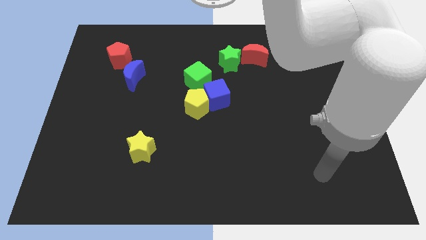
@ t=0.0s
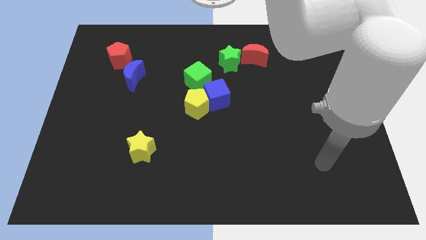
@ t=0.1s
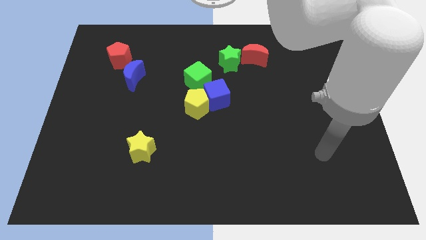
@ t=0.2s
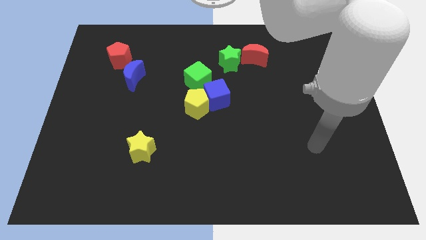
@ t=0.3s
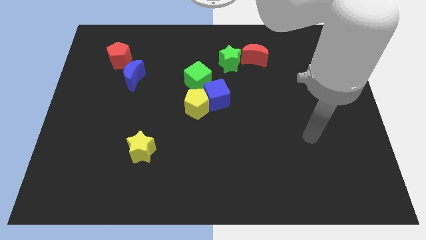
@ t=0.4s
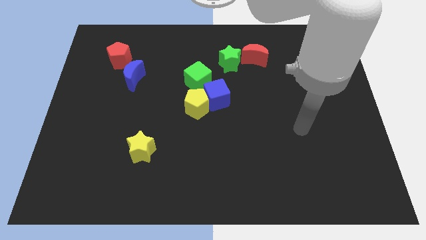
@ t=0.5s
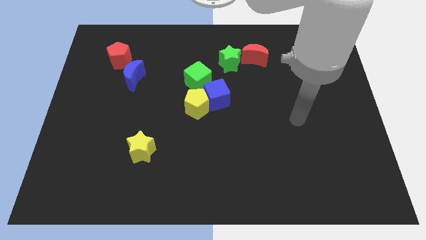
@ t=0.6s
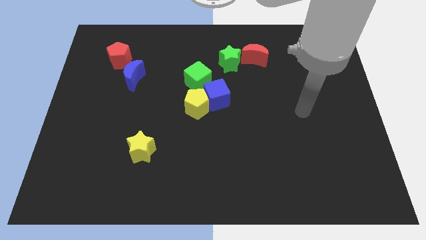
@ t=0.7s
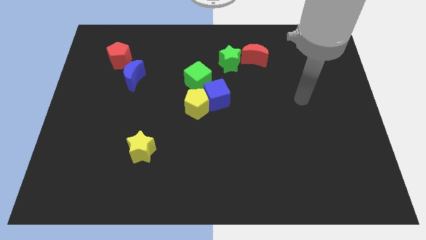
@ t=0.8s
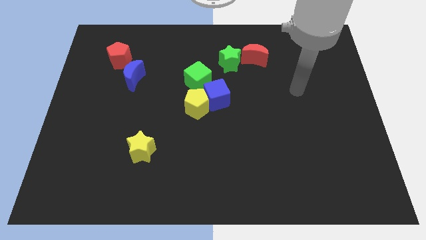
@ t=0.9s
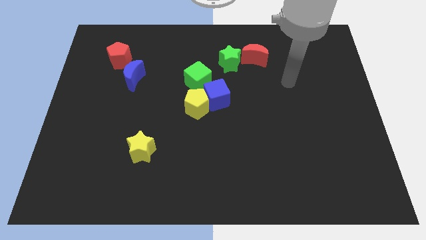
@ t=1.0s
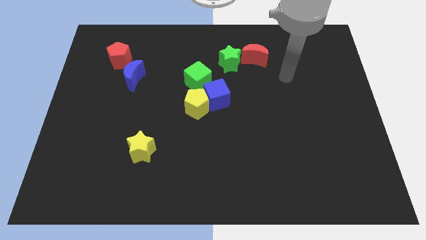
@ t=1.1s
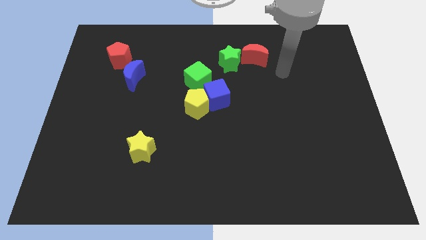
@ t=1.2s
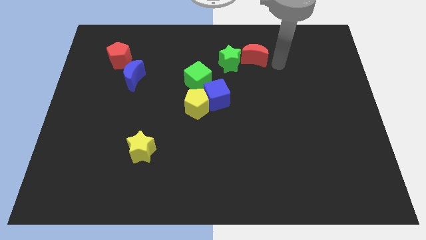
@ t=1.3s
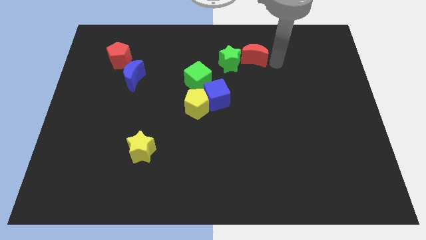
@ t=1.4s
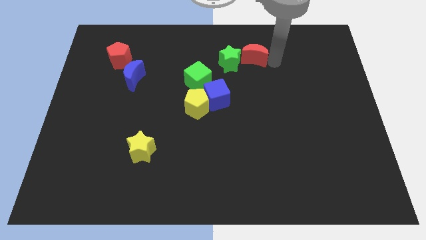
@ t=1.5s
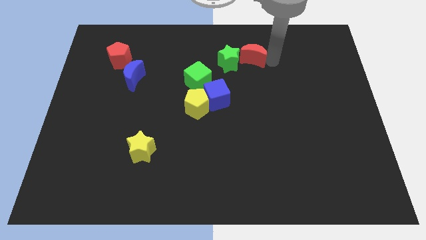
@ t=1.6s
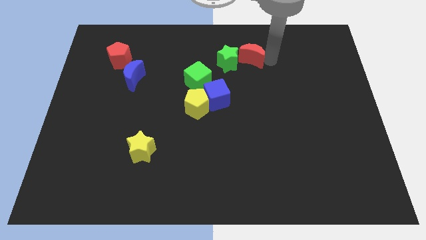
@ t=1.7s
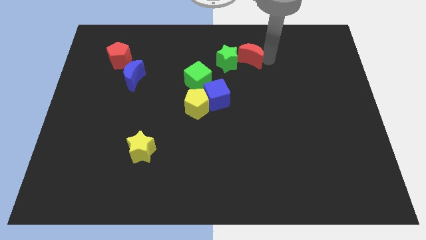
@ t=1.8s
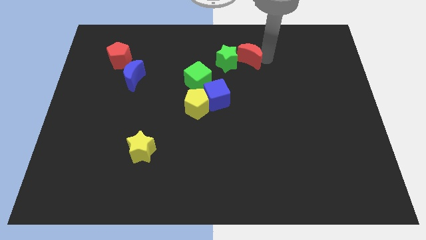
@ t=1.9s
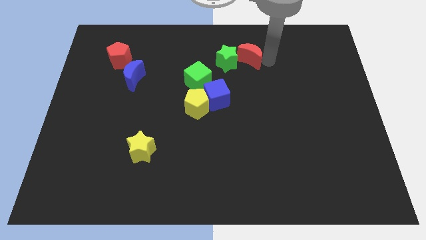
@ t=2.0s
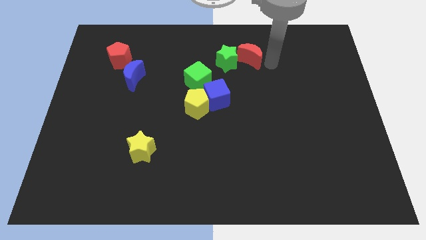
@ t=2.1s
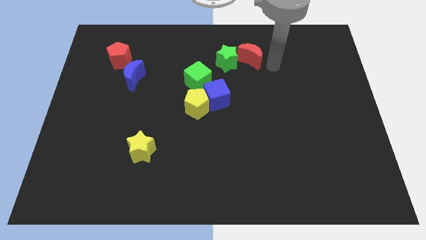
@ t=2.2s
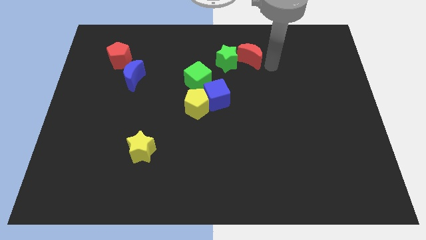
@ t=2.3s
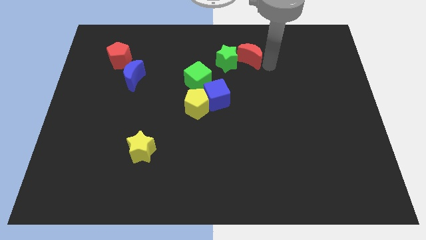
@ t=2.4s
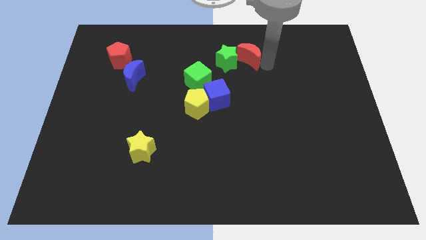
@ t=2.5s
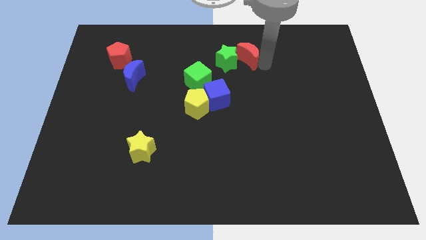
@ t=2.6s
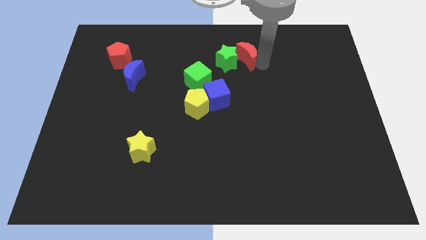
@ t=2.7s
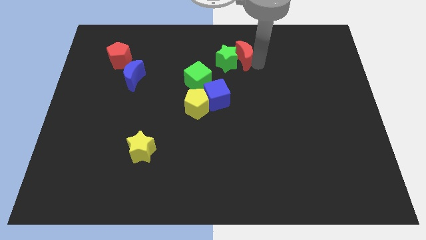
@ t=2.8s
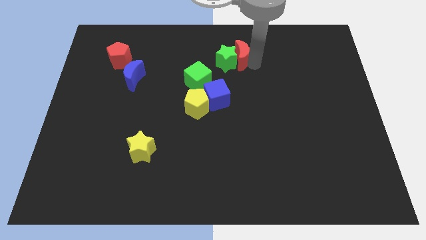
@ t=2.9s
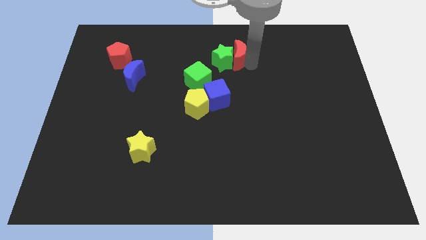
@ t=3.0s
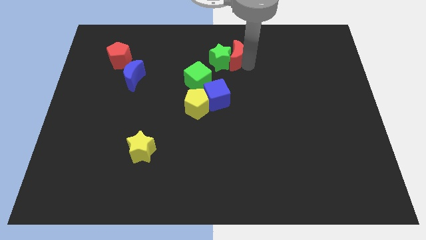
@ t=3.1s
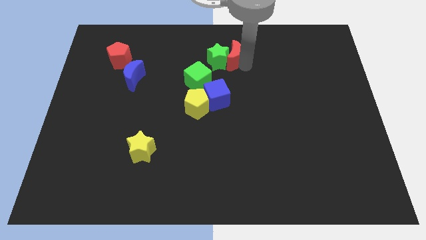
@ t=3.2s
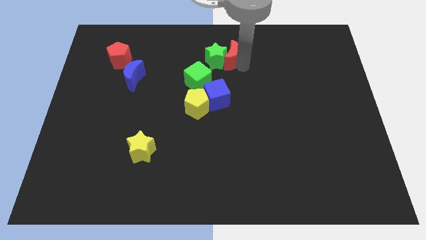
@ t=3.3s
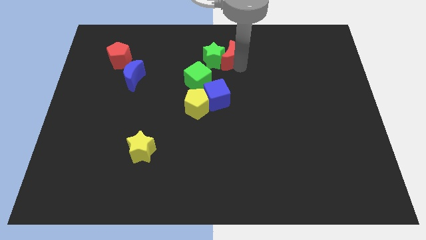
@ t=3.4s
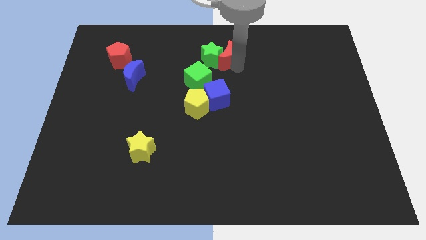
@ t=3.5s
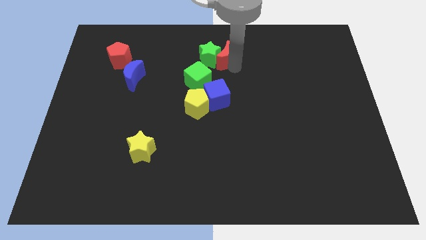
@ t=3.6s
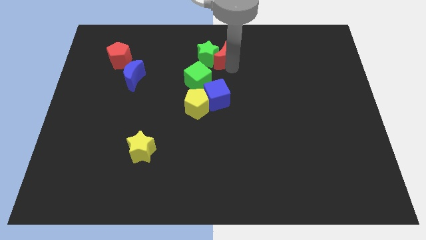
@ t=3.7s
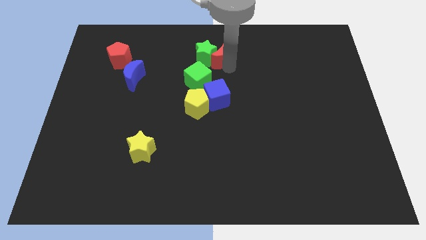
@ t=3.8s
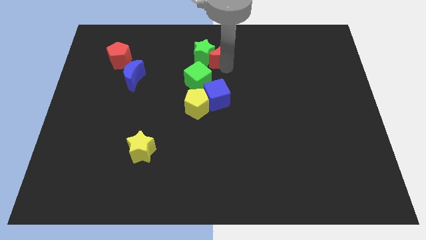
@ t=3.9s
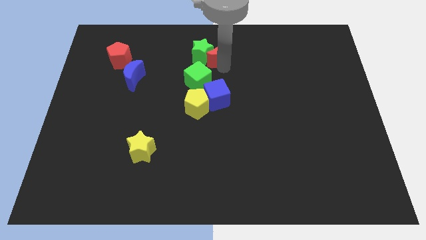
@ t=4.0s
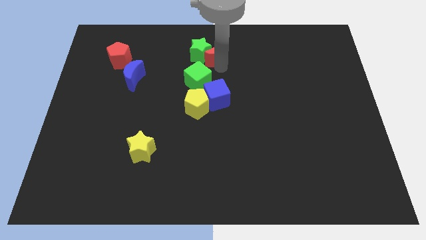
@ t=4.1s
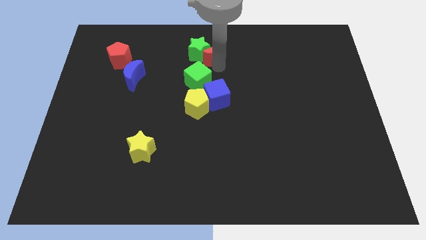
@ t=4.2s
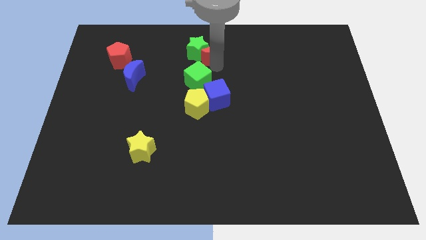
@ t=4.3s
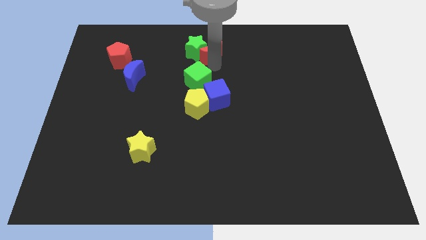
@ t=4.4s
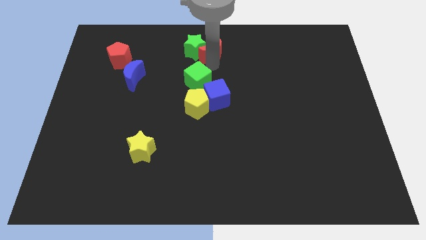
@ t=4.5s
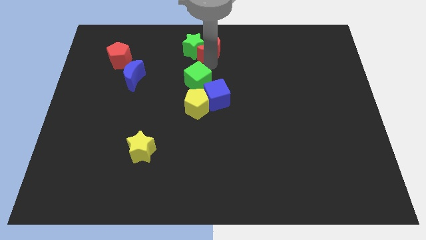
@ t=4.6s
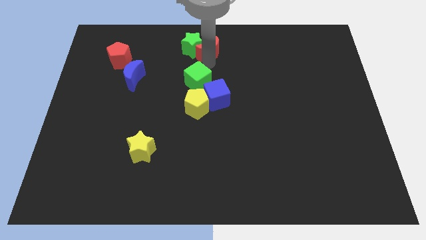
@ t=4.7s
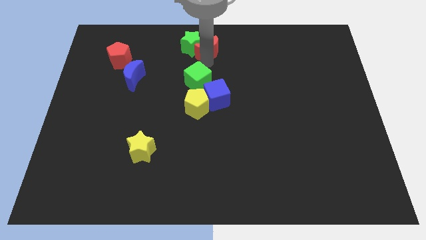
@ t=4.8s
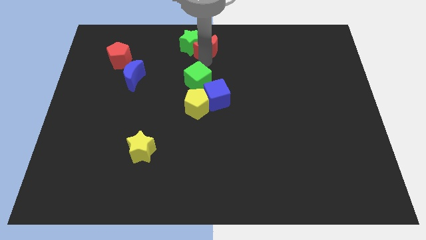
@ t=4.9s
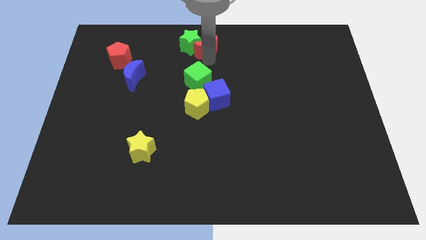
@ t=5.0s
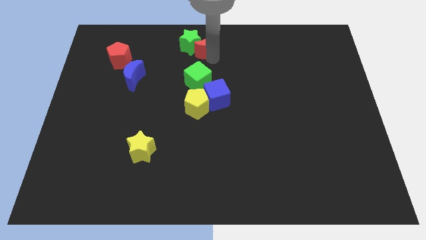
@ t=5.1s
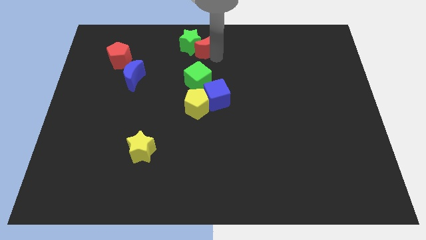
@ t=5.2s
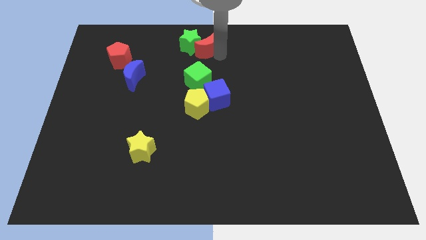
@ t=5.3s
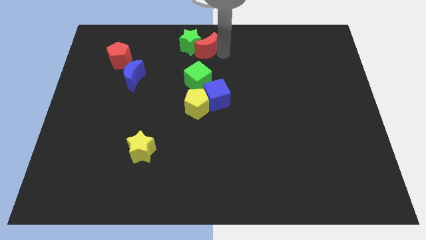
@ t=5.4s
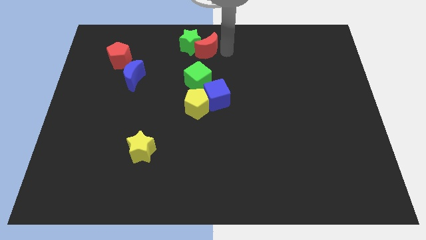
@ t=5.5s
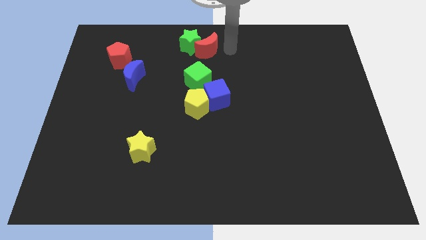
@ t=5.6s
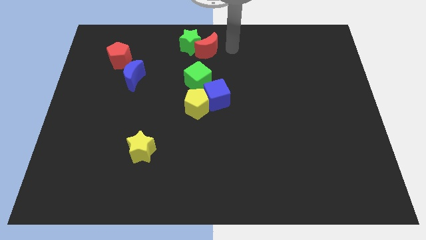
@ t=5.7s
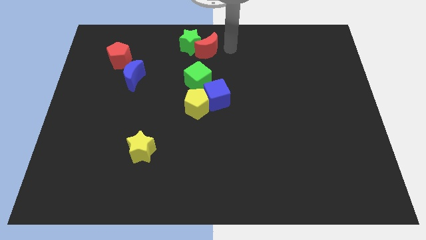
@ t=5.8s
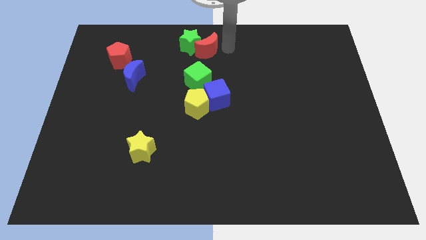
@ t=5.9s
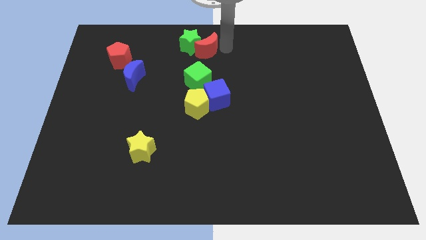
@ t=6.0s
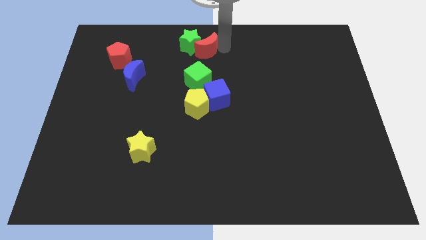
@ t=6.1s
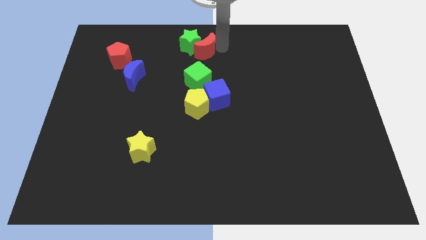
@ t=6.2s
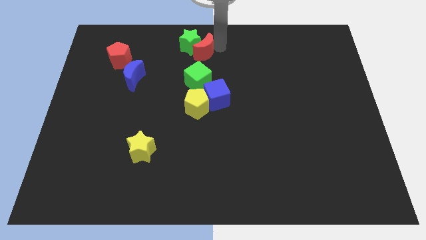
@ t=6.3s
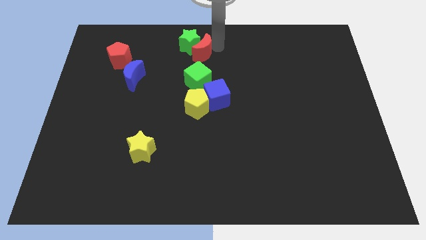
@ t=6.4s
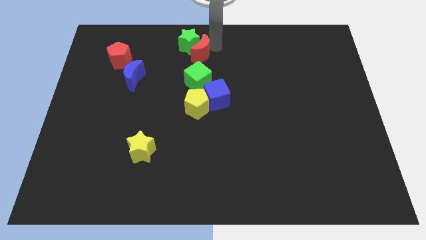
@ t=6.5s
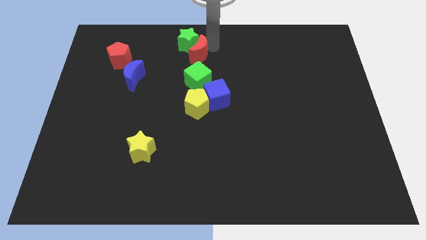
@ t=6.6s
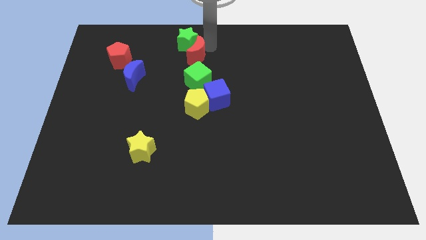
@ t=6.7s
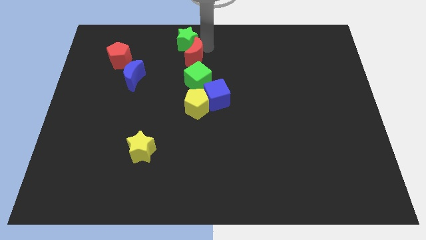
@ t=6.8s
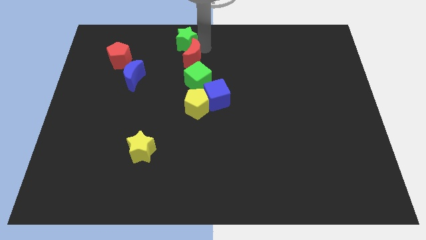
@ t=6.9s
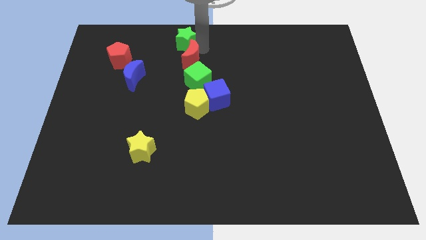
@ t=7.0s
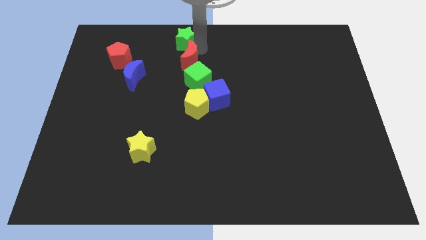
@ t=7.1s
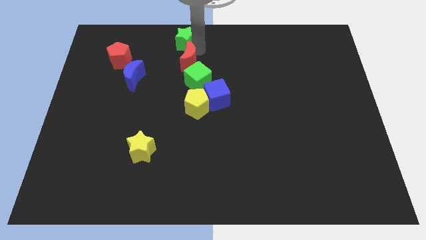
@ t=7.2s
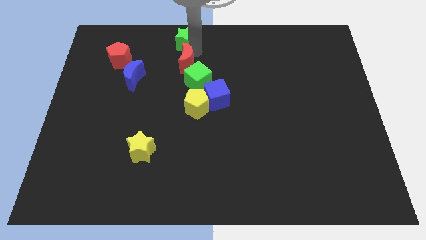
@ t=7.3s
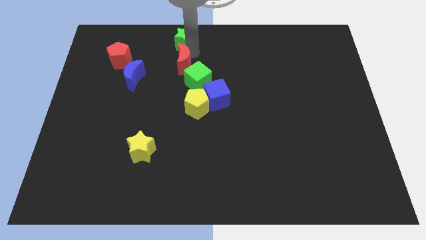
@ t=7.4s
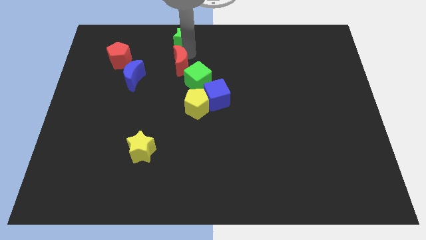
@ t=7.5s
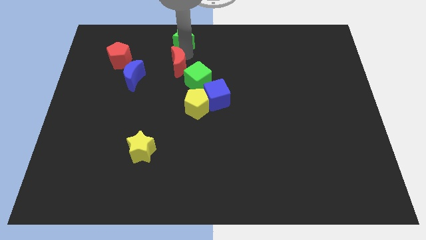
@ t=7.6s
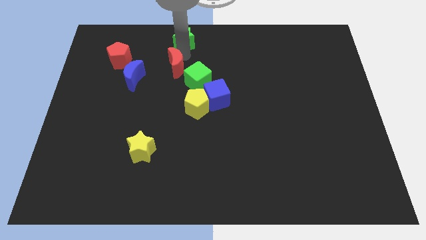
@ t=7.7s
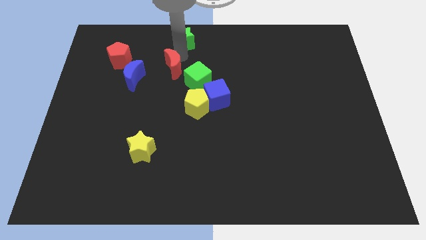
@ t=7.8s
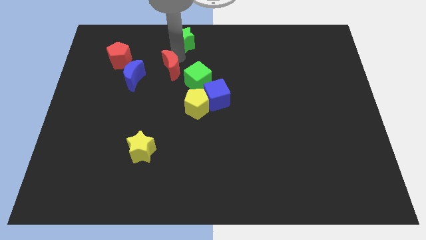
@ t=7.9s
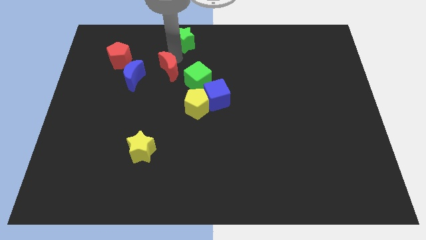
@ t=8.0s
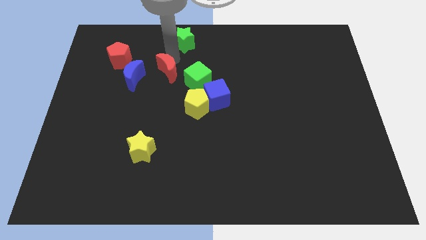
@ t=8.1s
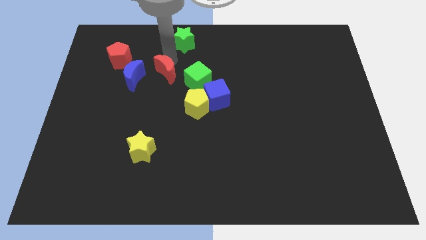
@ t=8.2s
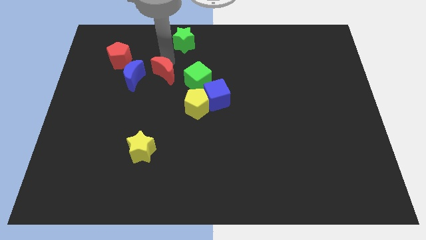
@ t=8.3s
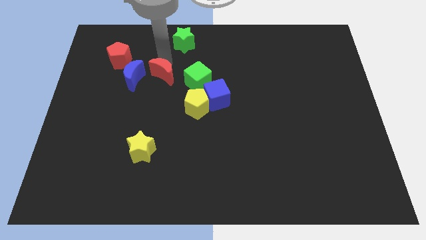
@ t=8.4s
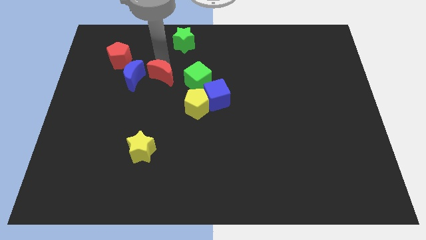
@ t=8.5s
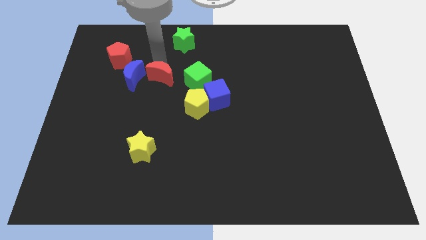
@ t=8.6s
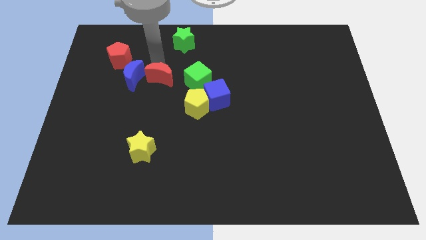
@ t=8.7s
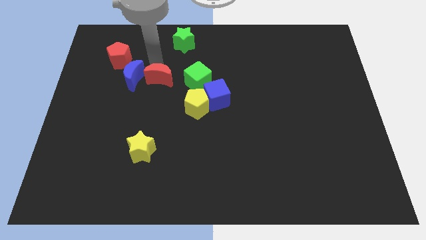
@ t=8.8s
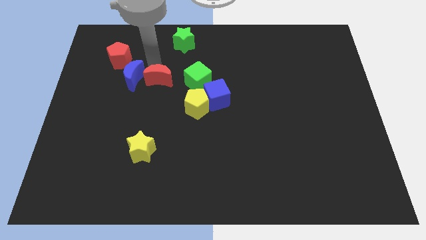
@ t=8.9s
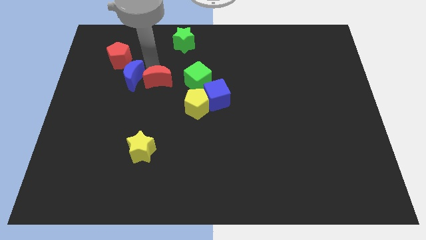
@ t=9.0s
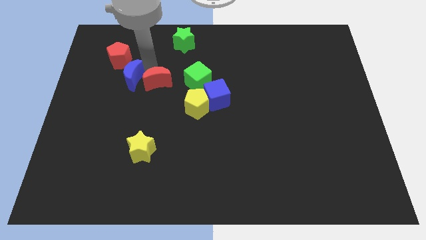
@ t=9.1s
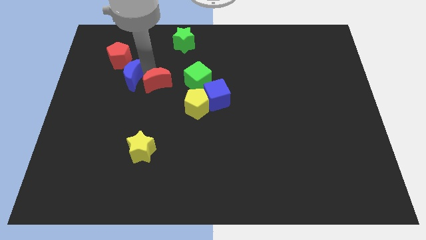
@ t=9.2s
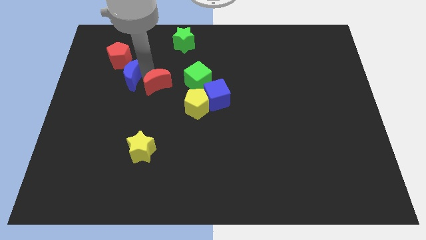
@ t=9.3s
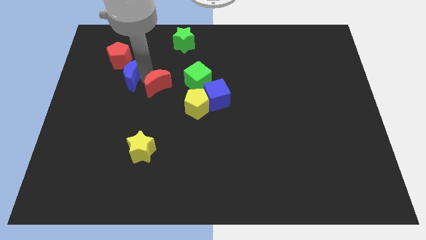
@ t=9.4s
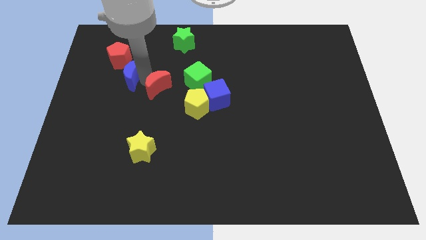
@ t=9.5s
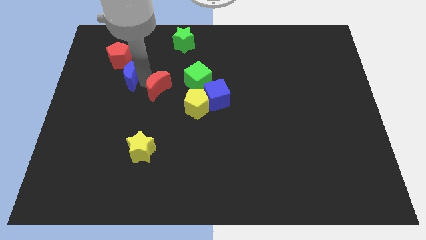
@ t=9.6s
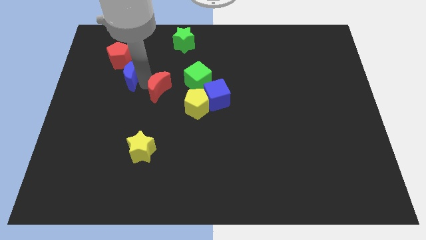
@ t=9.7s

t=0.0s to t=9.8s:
push the red moon diagonally down and to the left of the green cube
